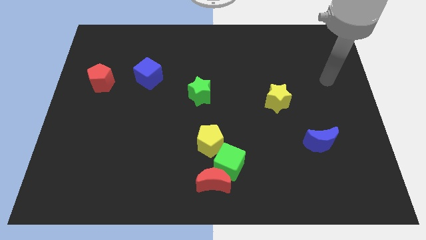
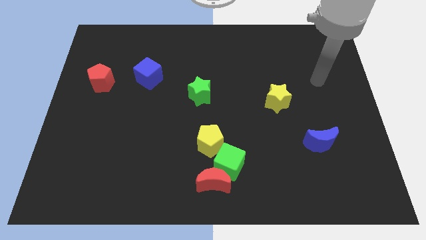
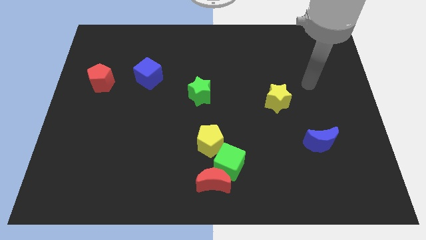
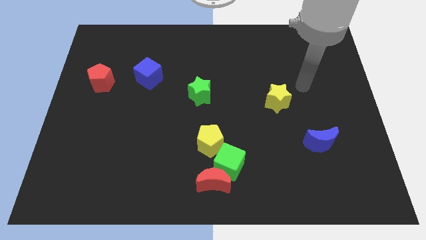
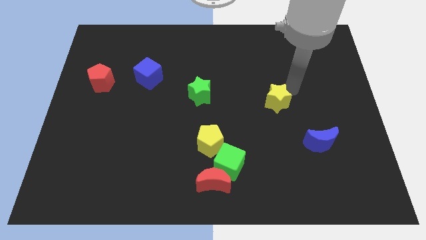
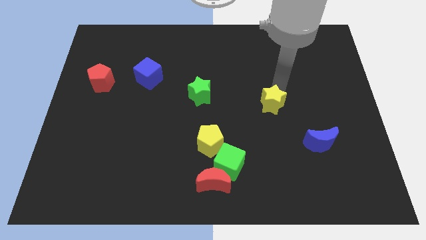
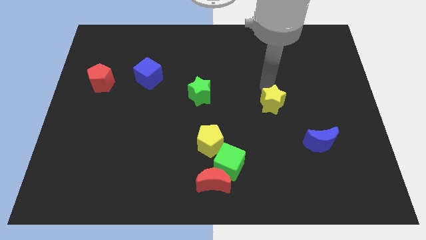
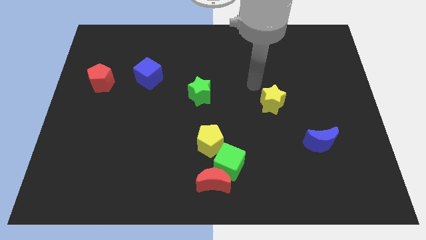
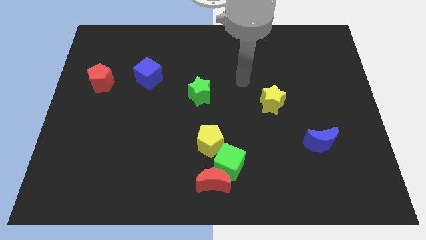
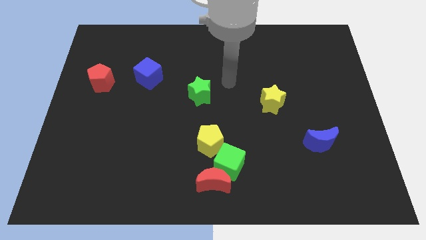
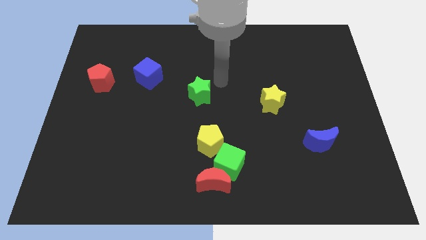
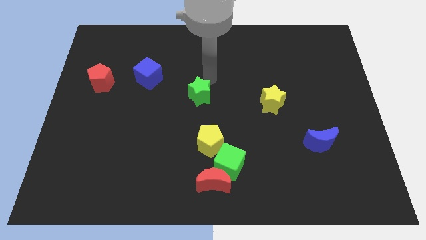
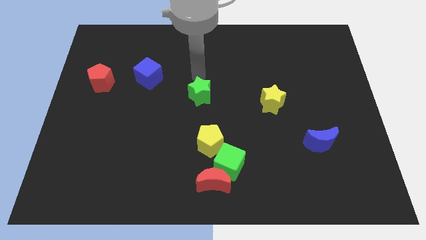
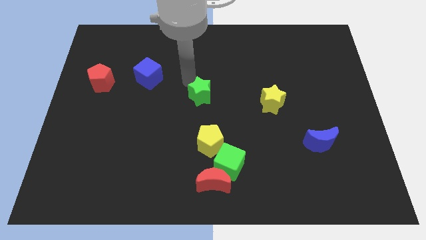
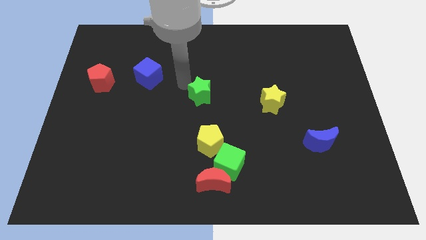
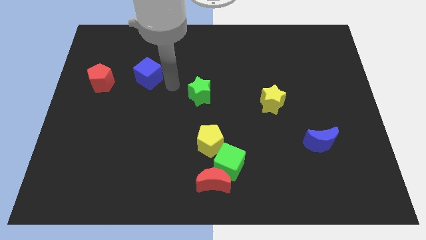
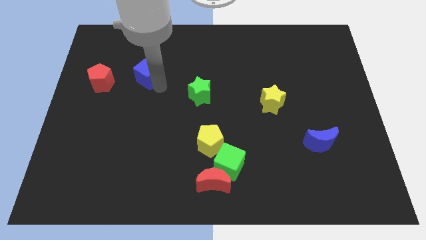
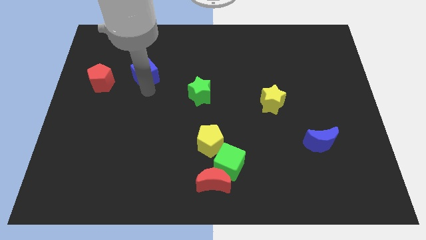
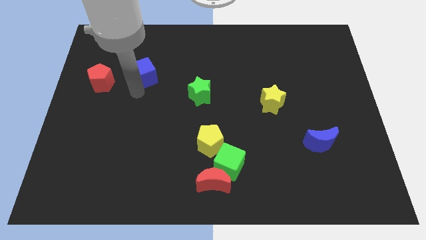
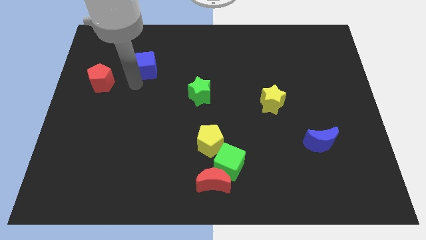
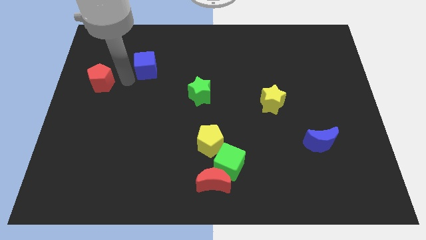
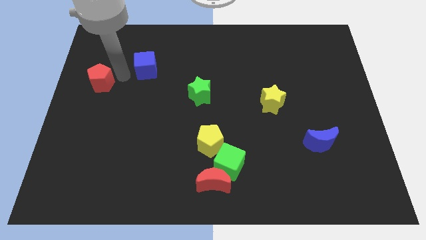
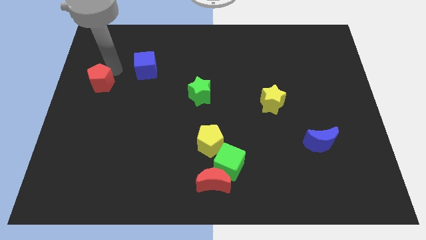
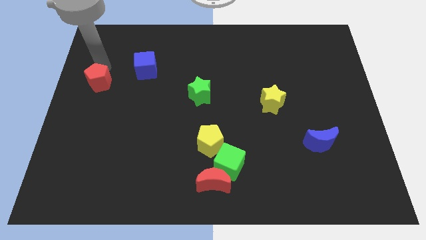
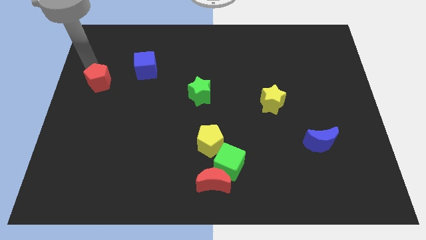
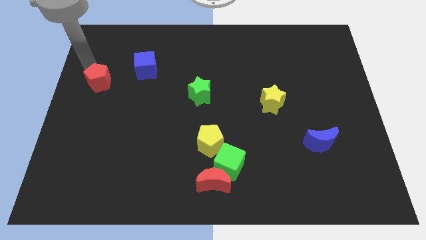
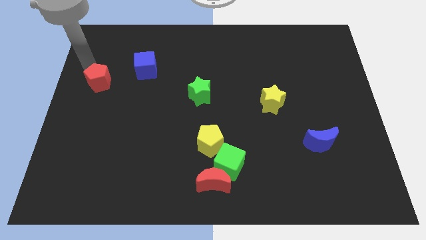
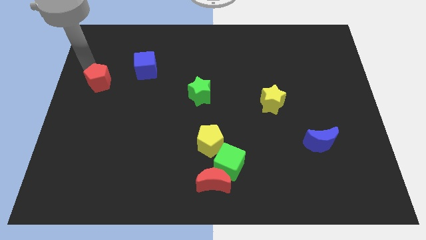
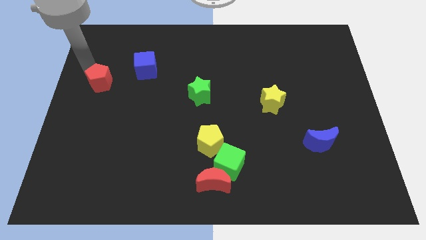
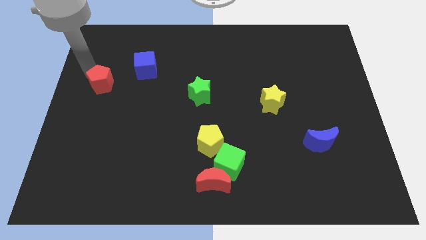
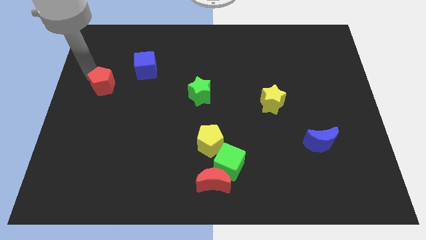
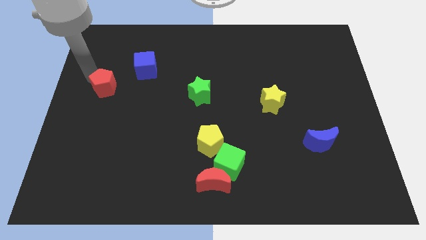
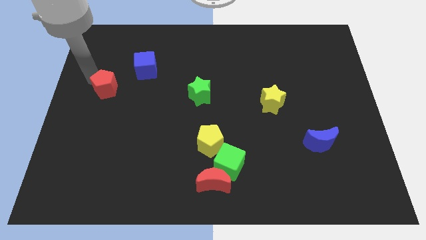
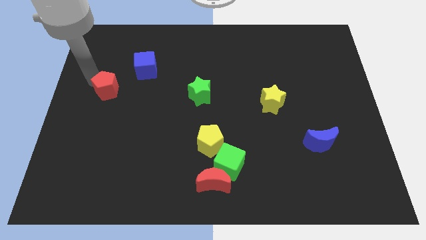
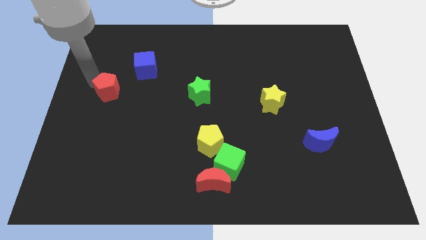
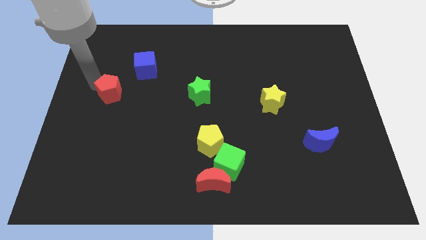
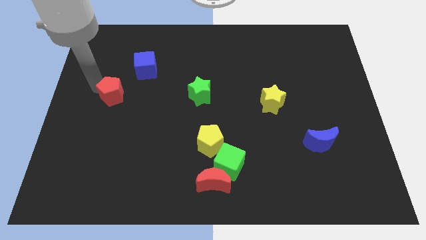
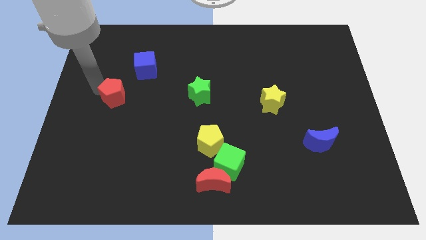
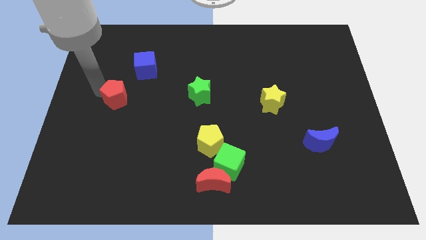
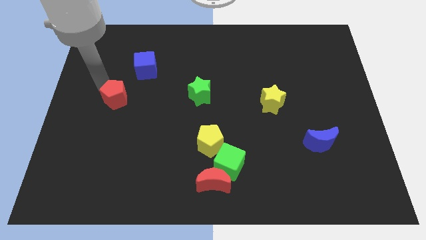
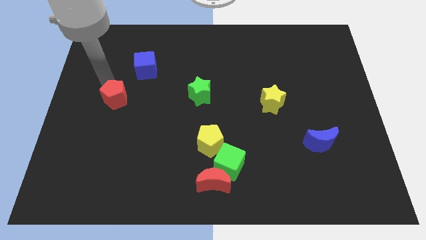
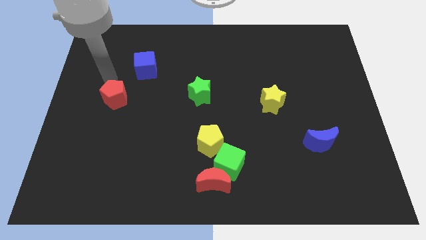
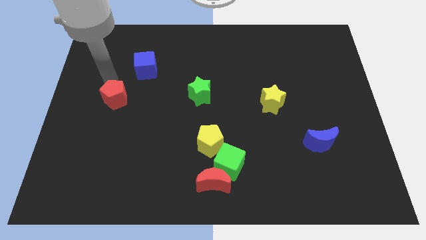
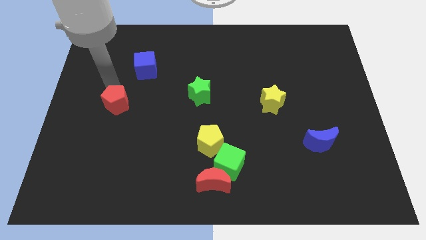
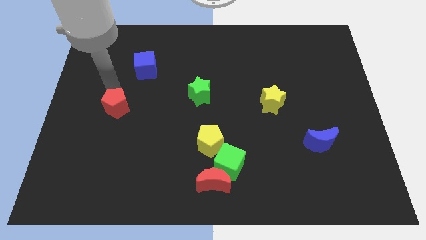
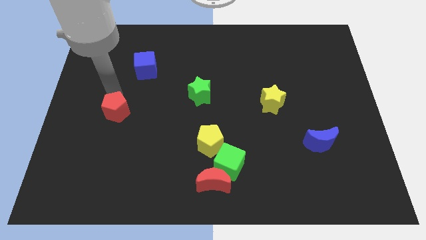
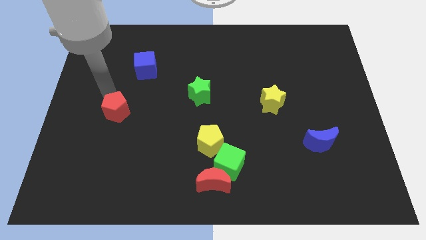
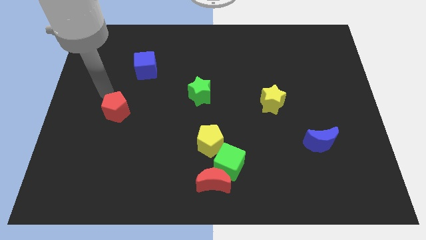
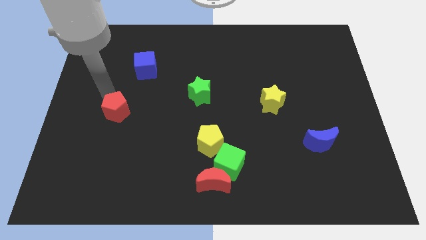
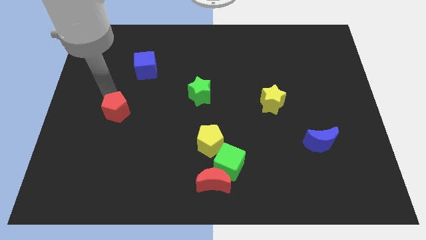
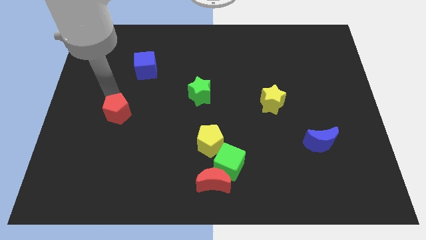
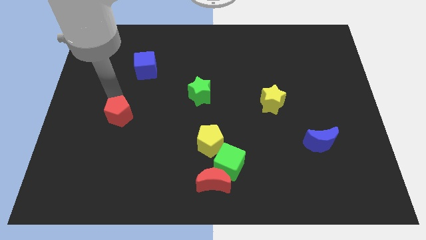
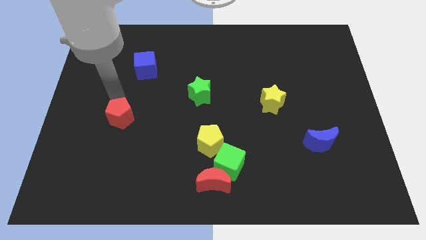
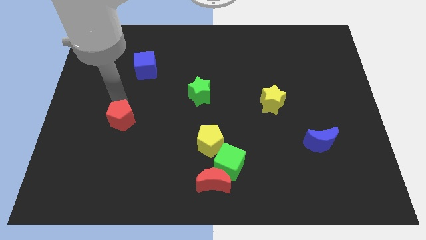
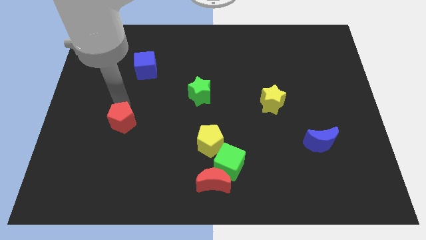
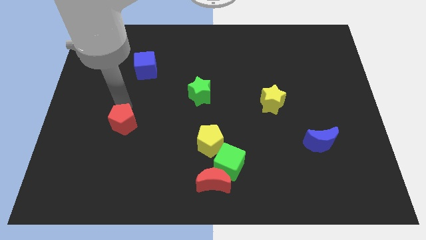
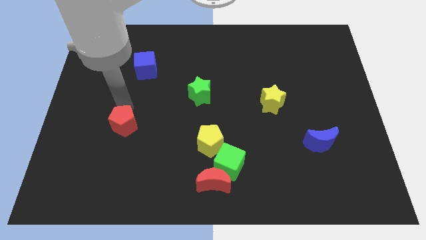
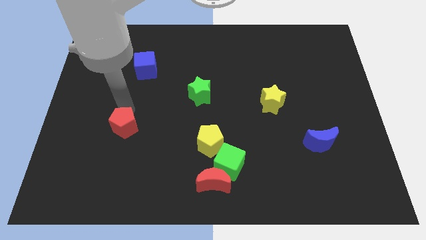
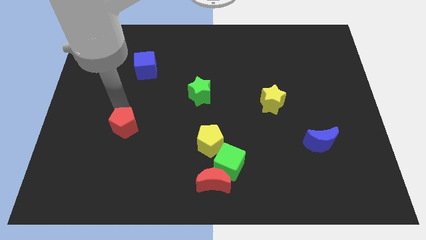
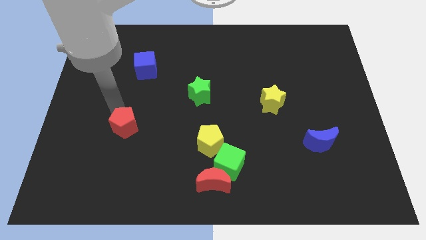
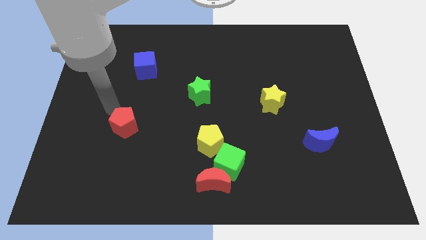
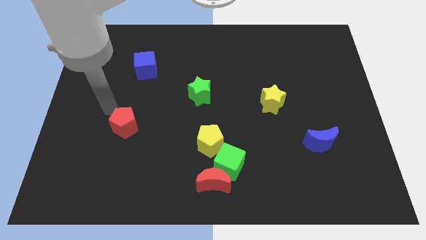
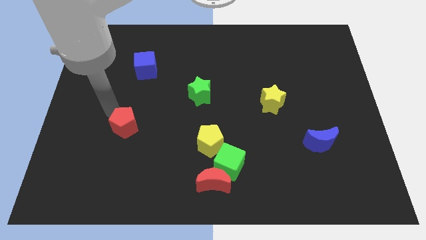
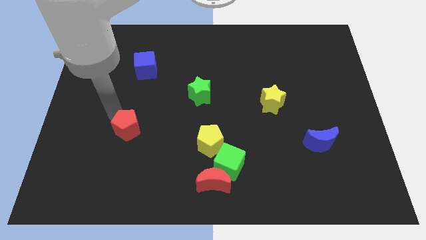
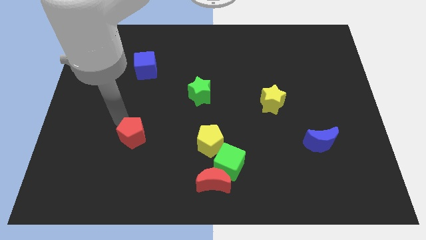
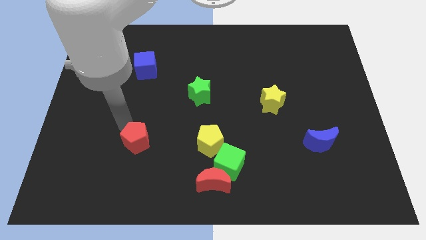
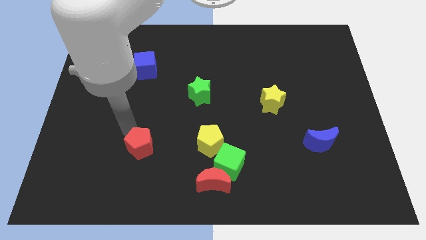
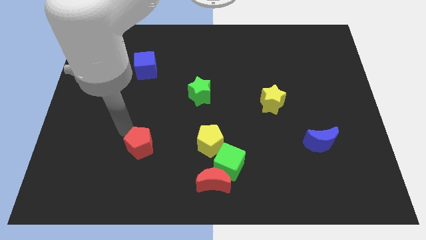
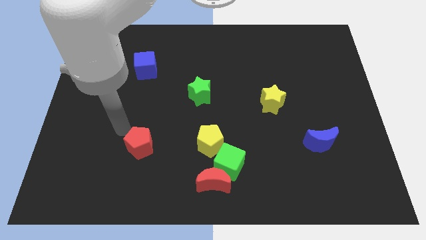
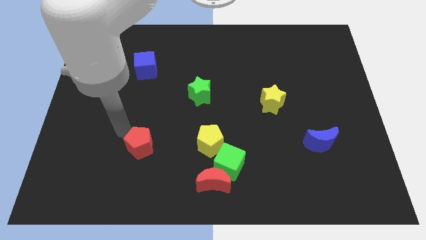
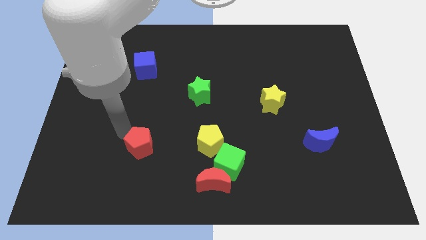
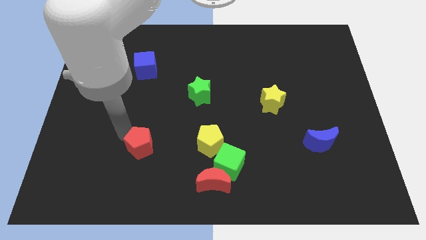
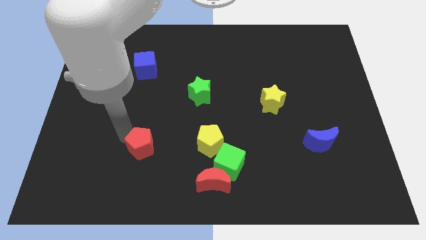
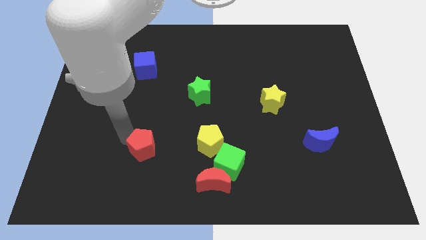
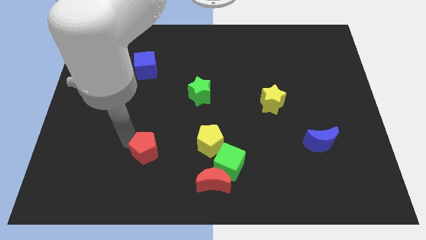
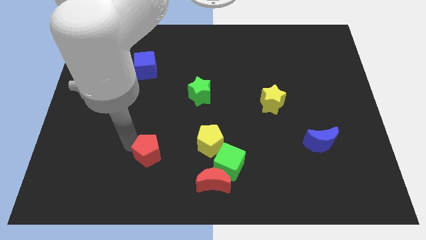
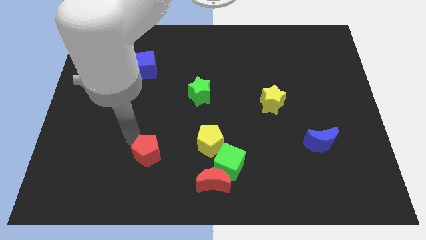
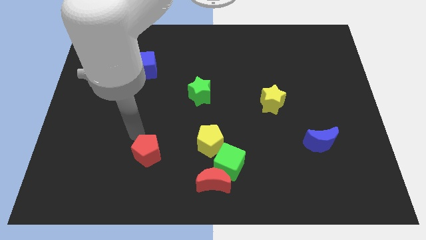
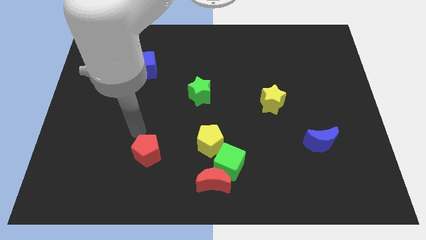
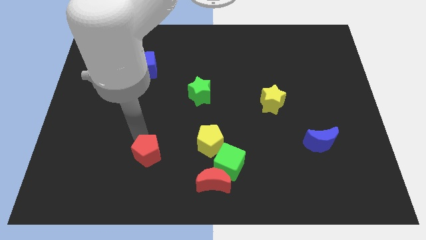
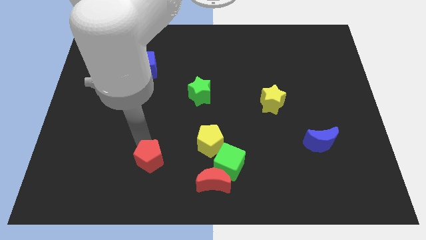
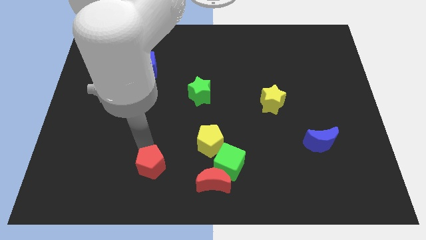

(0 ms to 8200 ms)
move the red pentagon just left of the red moon

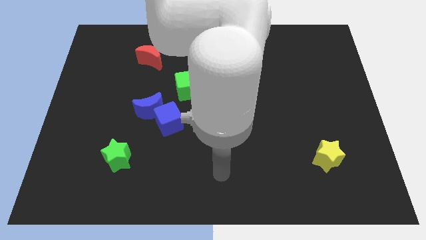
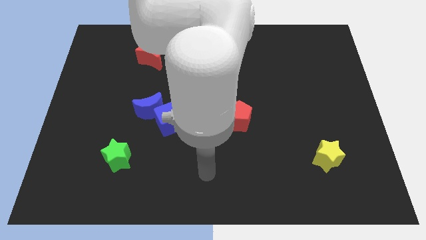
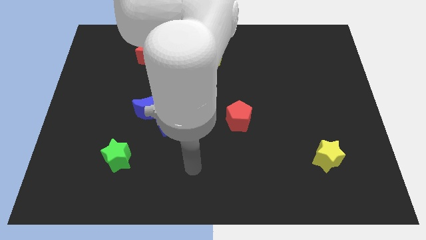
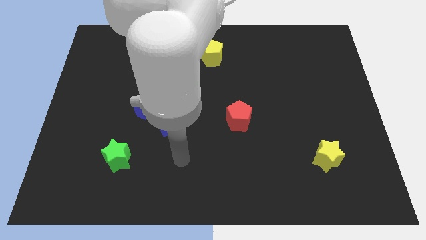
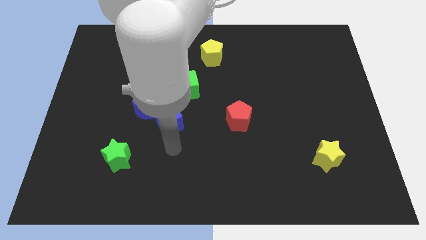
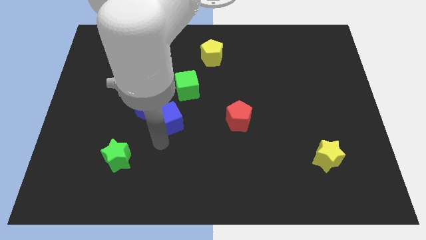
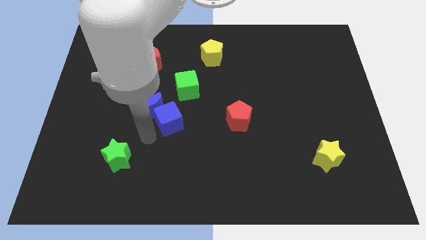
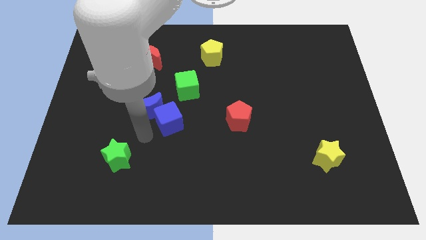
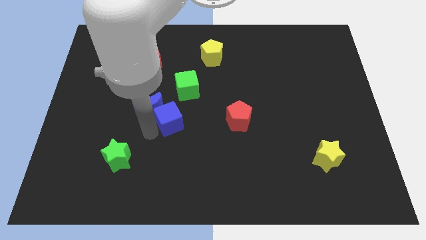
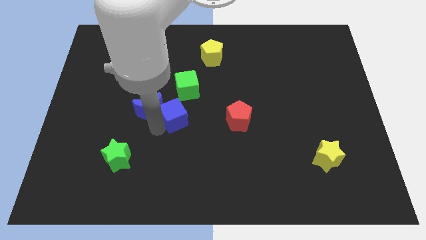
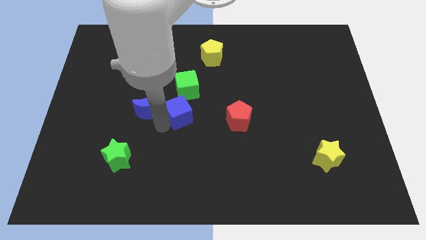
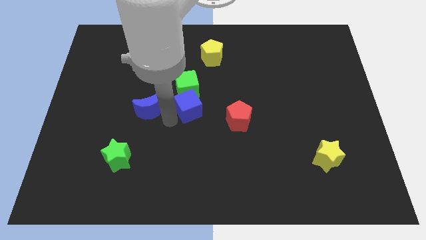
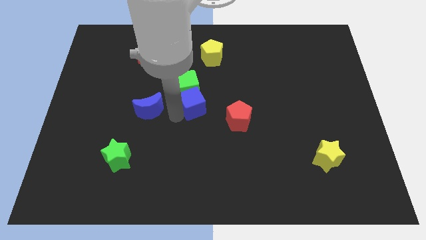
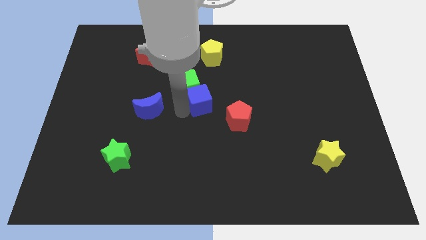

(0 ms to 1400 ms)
slide the blue cube to the top left side of the red pentagon
